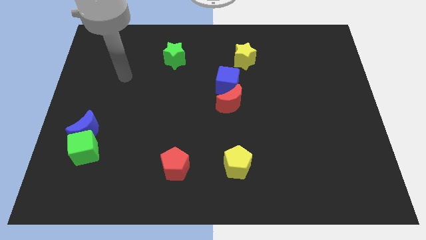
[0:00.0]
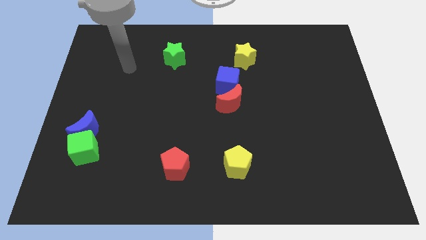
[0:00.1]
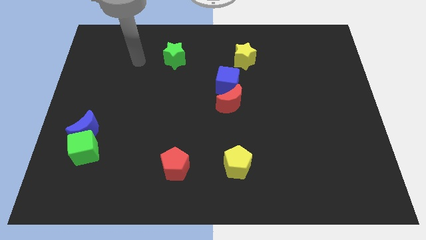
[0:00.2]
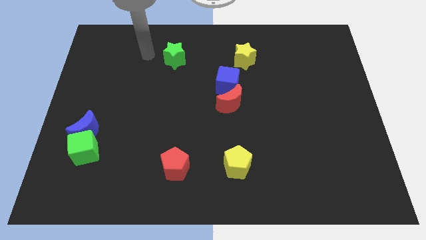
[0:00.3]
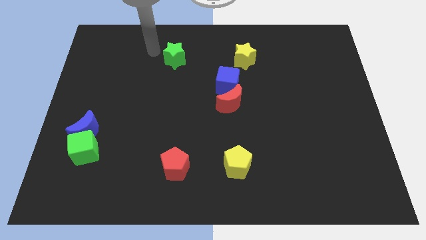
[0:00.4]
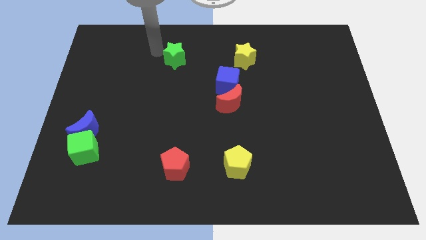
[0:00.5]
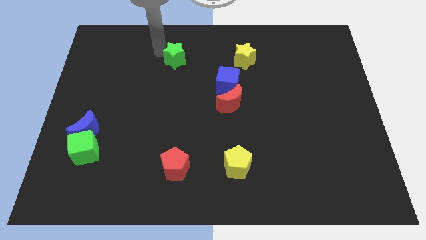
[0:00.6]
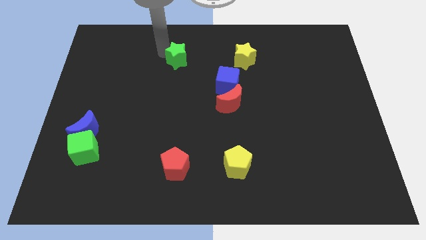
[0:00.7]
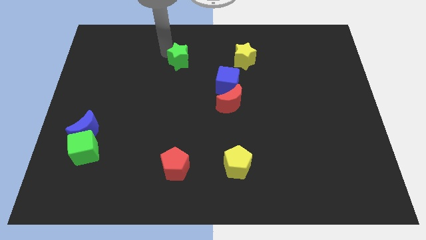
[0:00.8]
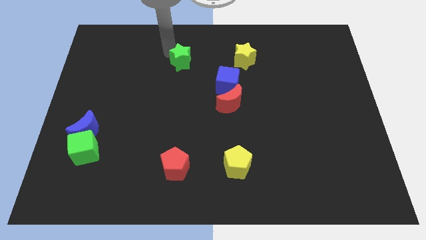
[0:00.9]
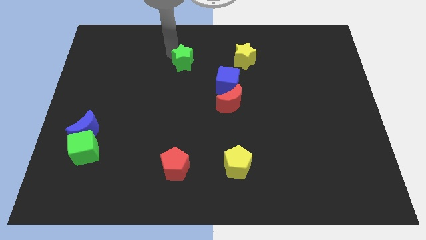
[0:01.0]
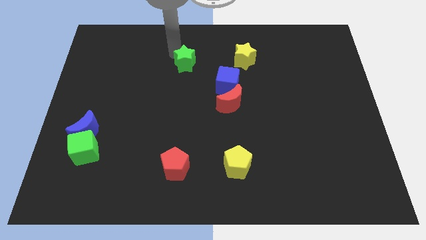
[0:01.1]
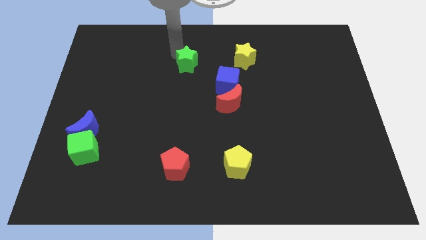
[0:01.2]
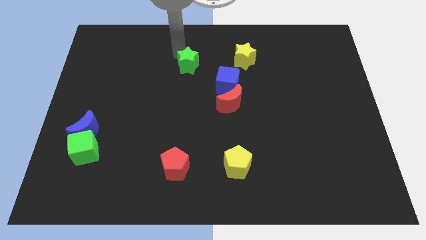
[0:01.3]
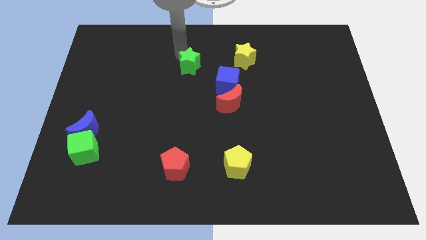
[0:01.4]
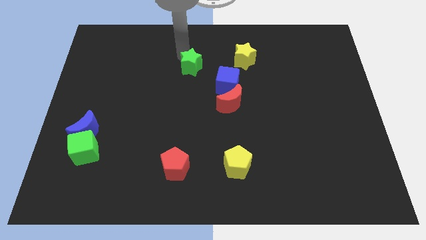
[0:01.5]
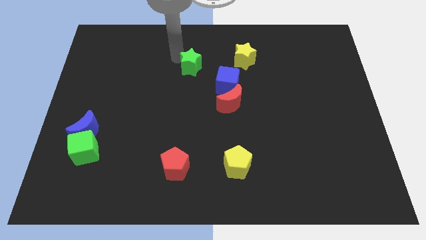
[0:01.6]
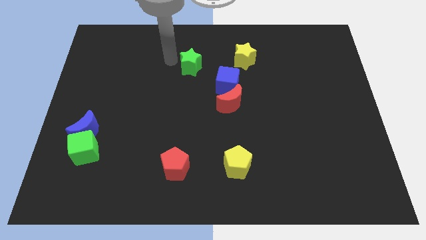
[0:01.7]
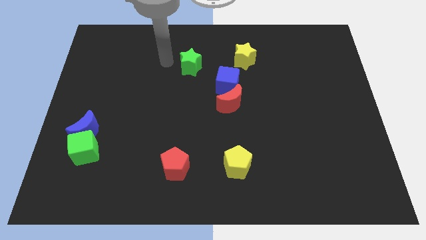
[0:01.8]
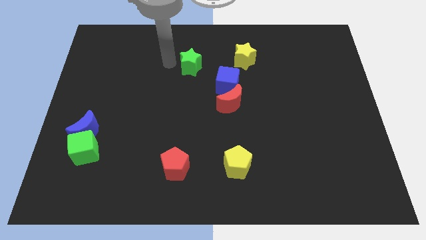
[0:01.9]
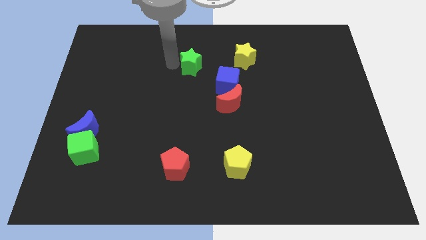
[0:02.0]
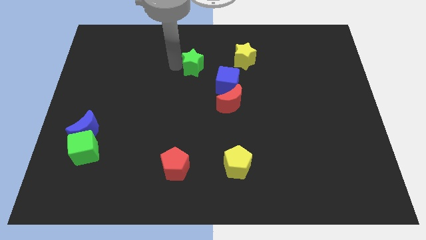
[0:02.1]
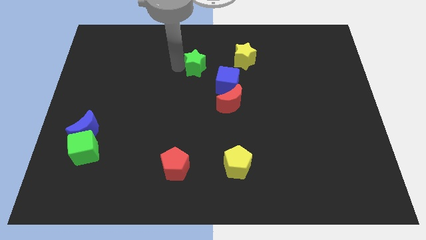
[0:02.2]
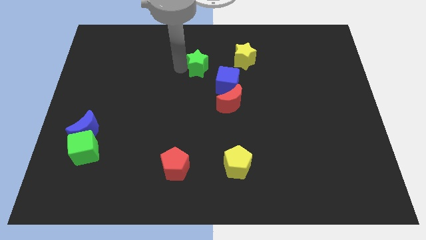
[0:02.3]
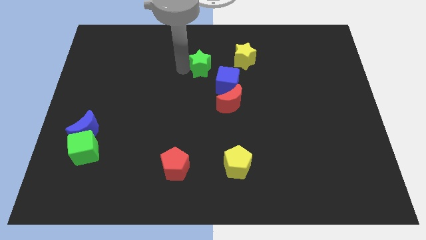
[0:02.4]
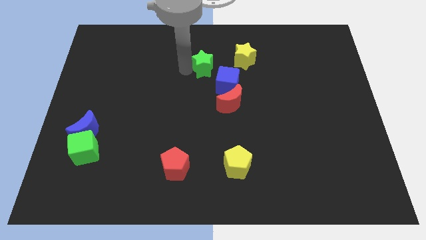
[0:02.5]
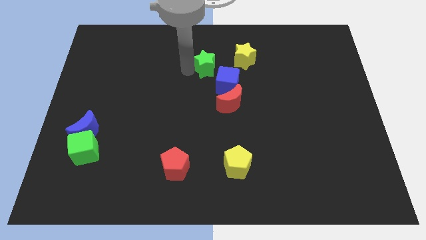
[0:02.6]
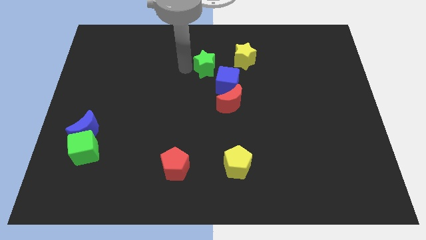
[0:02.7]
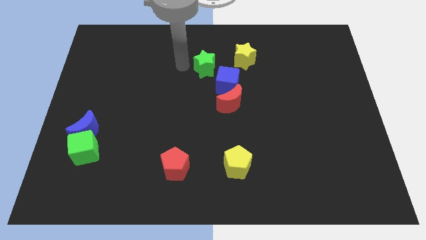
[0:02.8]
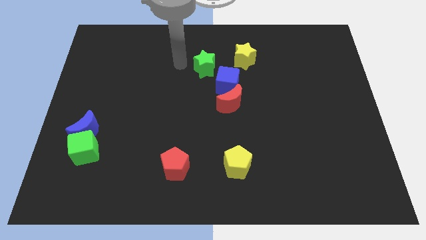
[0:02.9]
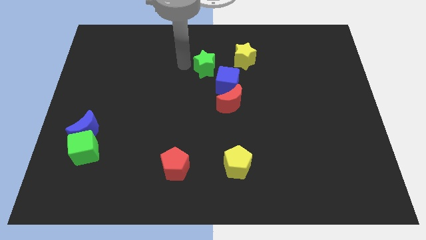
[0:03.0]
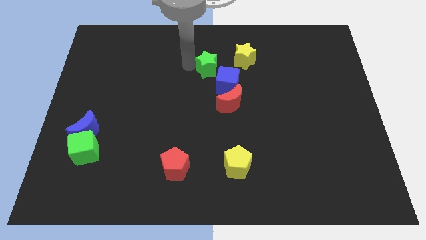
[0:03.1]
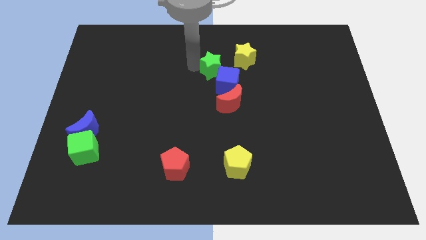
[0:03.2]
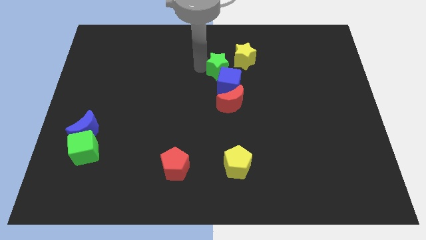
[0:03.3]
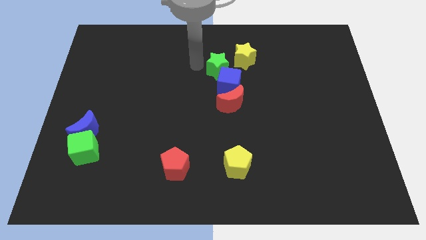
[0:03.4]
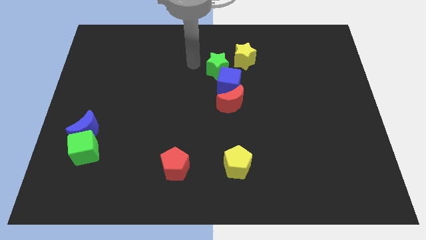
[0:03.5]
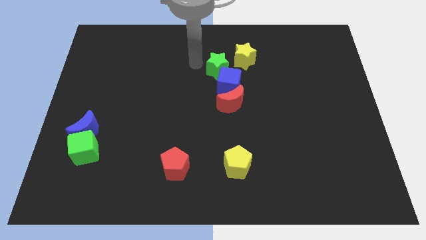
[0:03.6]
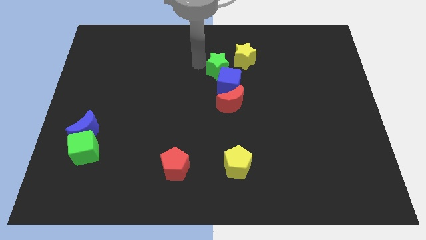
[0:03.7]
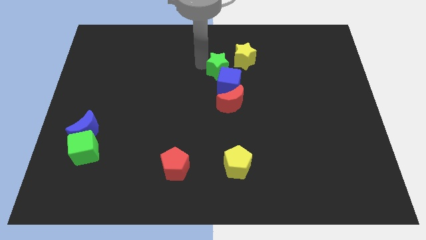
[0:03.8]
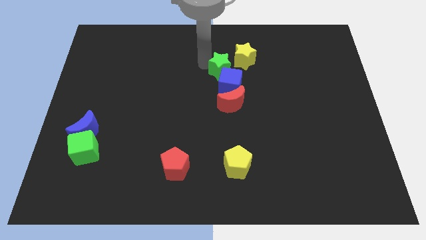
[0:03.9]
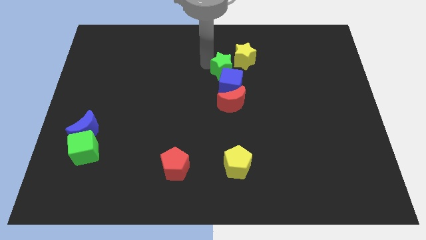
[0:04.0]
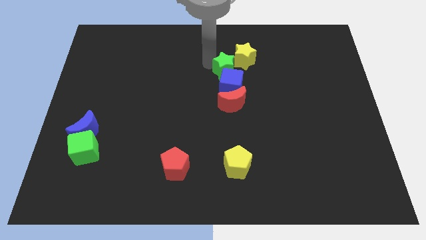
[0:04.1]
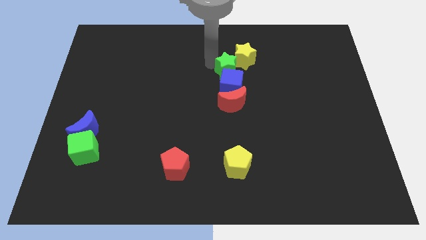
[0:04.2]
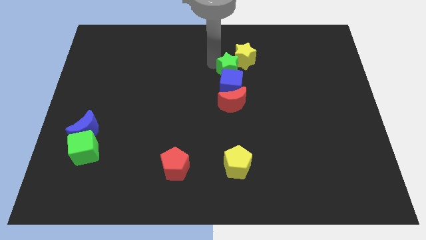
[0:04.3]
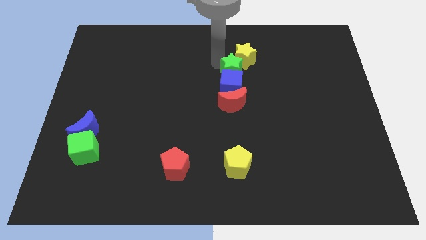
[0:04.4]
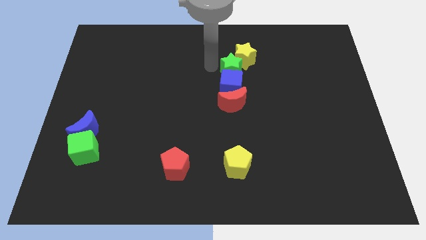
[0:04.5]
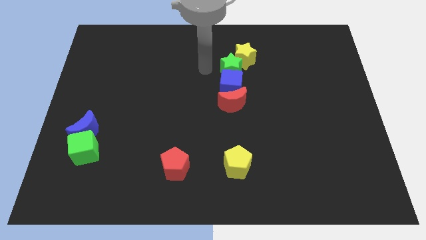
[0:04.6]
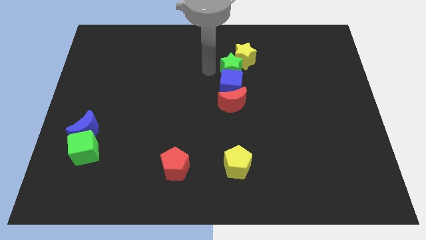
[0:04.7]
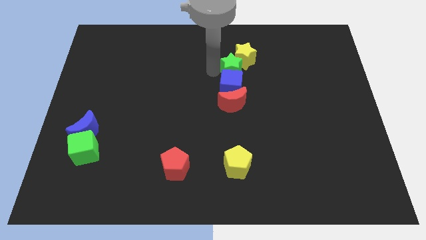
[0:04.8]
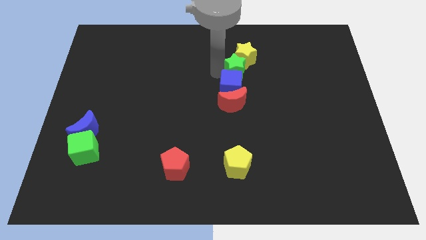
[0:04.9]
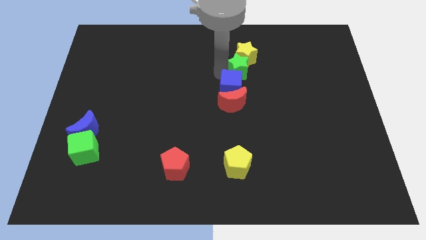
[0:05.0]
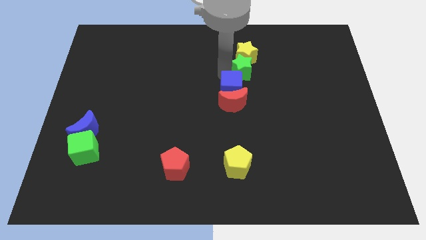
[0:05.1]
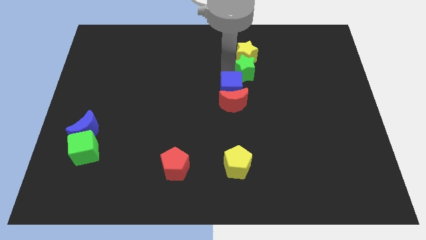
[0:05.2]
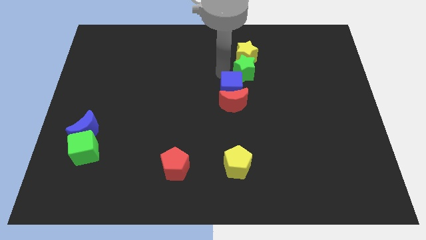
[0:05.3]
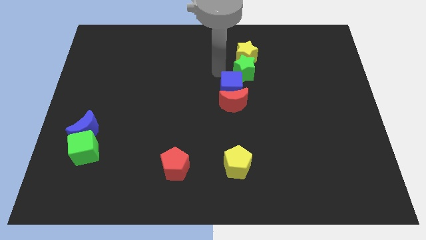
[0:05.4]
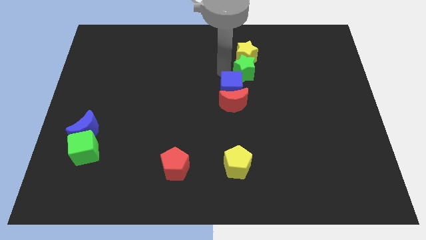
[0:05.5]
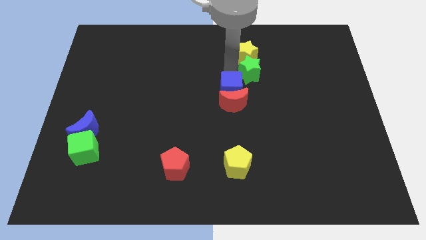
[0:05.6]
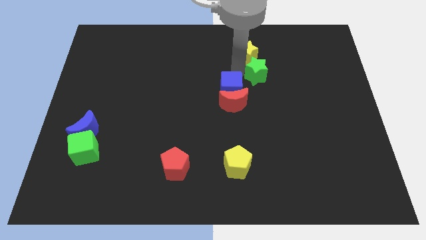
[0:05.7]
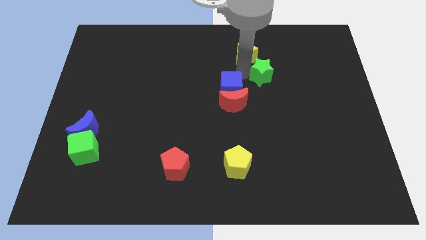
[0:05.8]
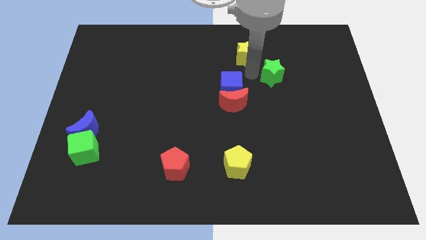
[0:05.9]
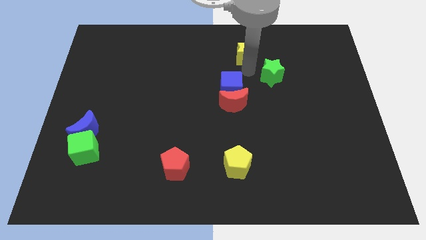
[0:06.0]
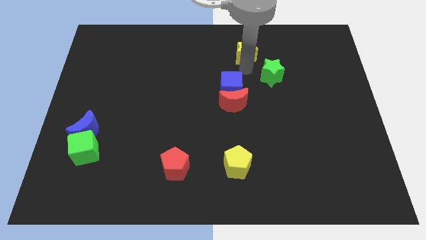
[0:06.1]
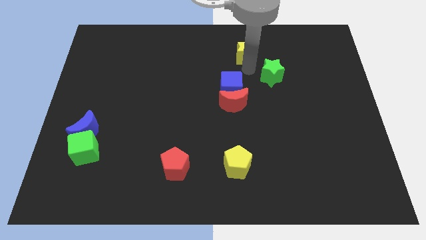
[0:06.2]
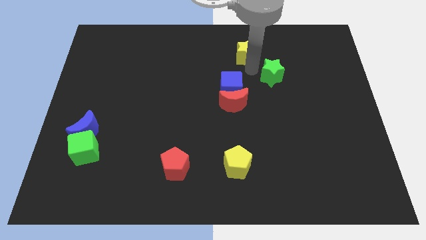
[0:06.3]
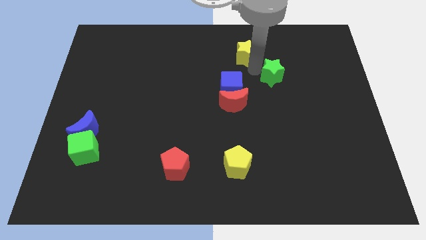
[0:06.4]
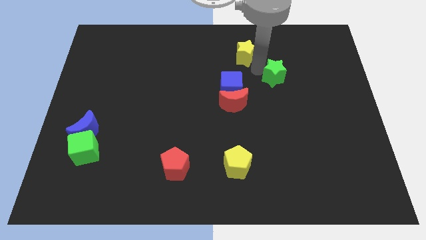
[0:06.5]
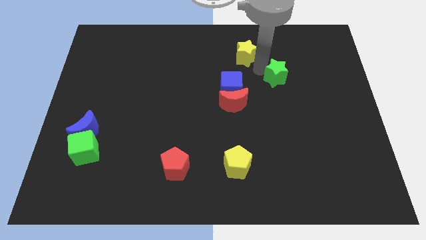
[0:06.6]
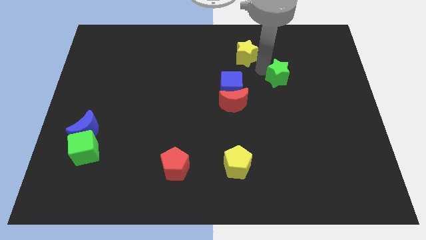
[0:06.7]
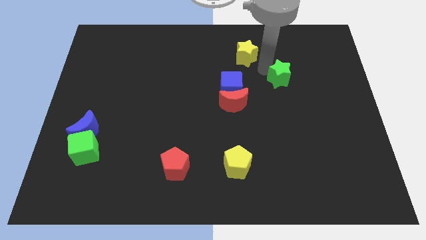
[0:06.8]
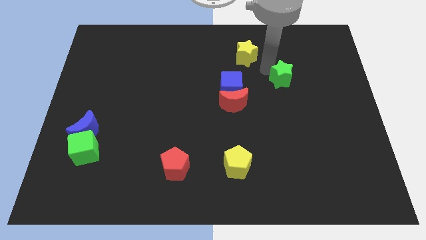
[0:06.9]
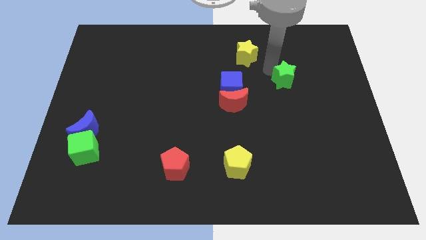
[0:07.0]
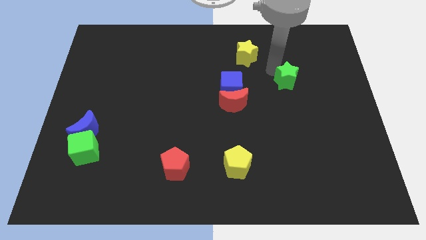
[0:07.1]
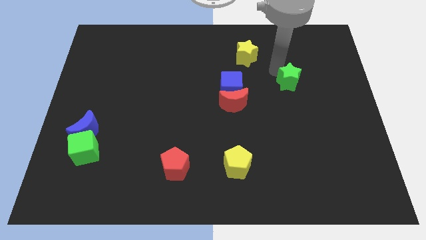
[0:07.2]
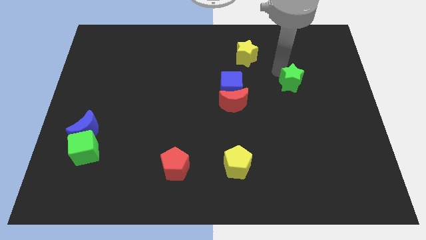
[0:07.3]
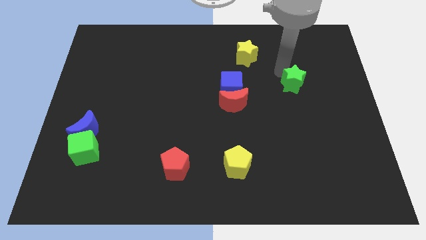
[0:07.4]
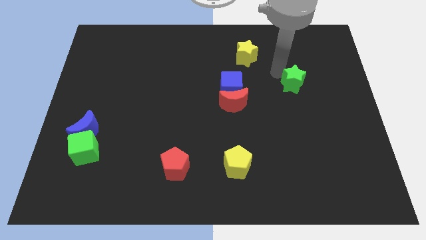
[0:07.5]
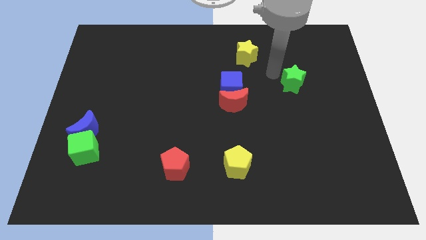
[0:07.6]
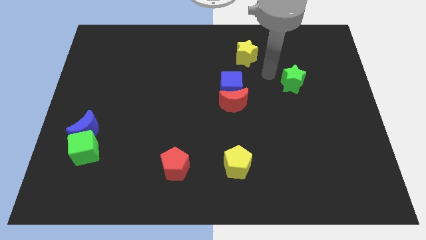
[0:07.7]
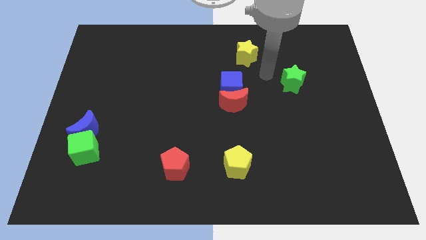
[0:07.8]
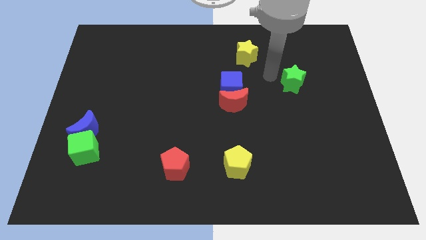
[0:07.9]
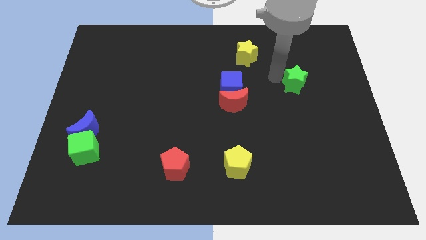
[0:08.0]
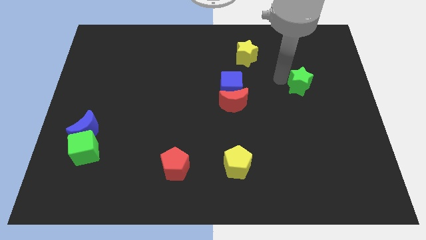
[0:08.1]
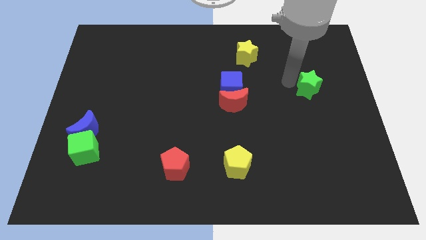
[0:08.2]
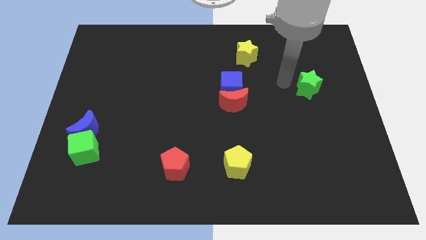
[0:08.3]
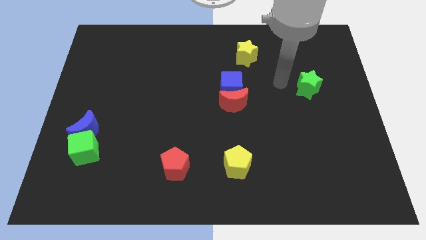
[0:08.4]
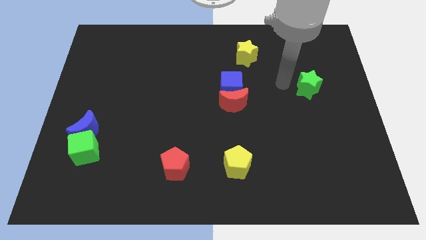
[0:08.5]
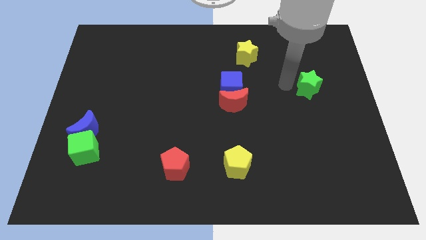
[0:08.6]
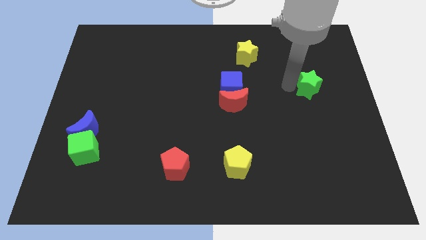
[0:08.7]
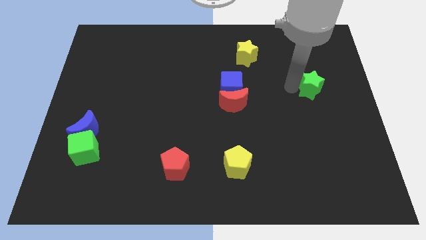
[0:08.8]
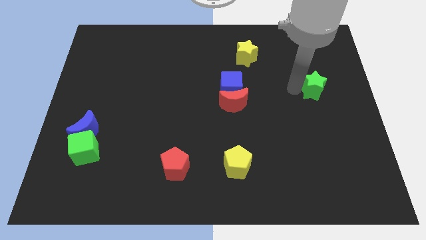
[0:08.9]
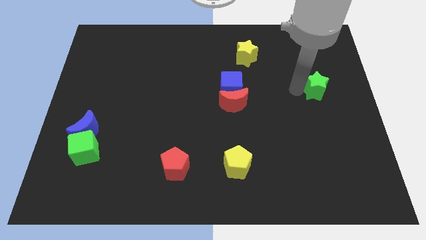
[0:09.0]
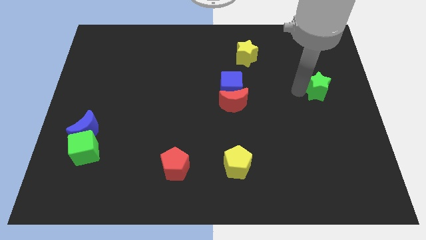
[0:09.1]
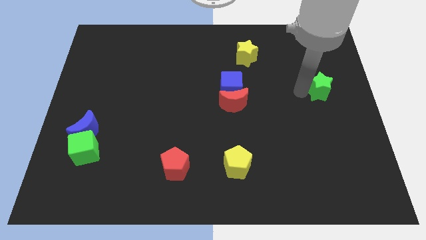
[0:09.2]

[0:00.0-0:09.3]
slide the green star to the right side
